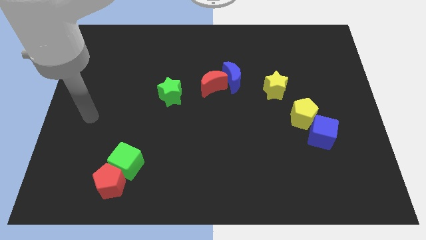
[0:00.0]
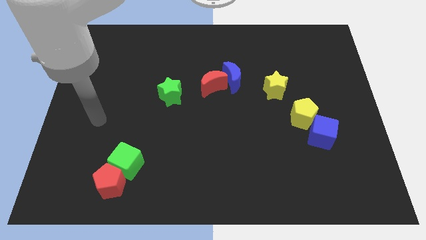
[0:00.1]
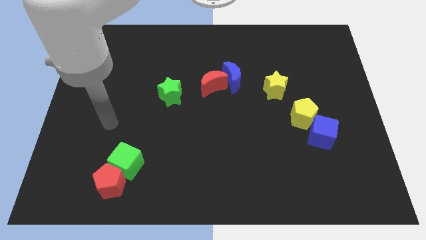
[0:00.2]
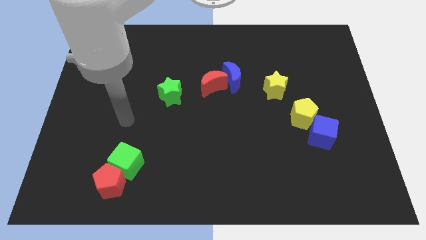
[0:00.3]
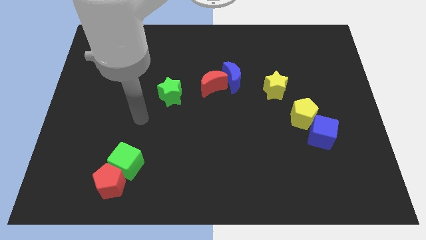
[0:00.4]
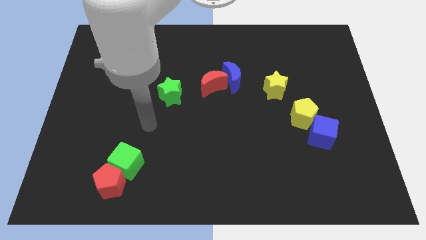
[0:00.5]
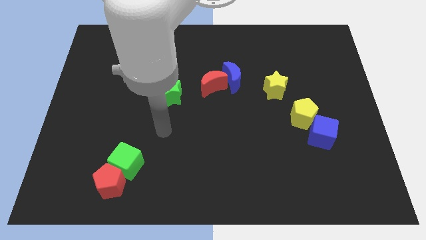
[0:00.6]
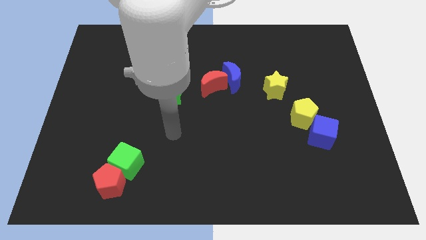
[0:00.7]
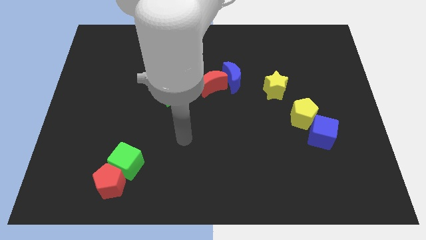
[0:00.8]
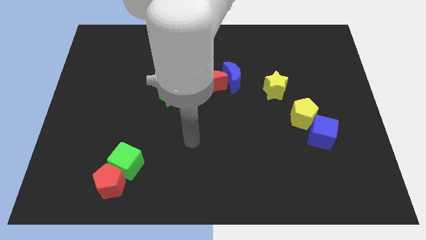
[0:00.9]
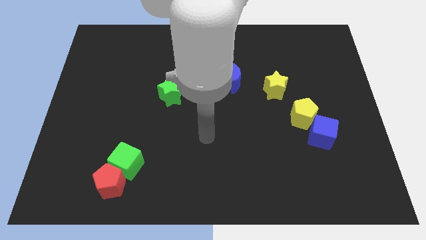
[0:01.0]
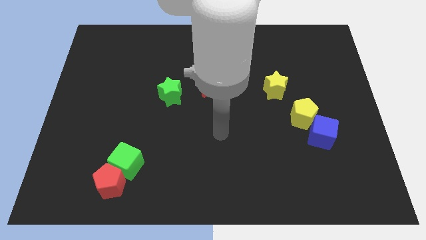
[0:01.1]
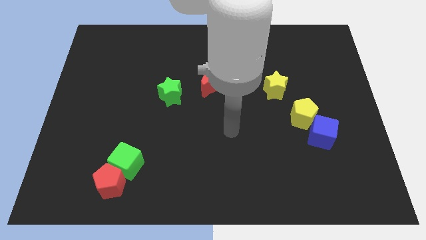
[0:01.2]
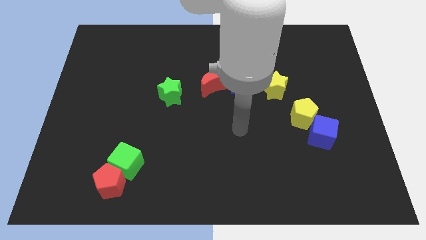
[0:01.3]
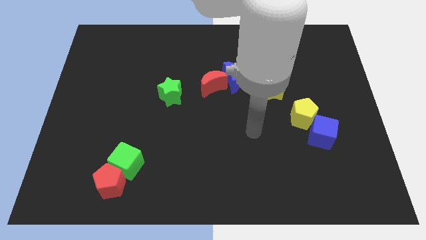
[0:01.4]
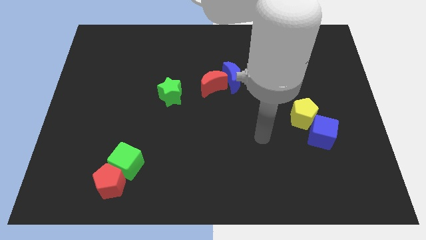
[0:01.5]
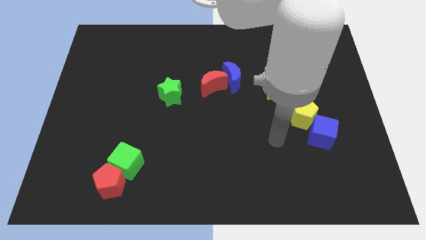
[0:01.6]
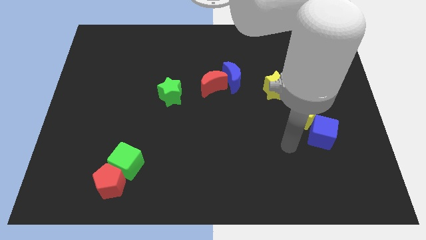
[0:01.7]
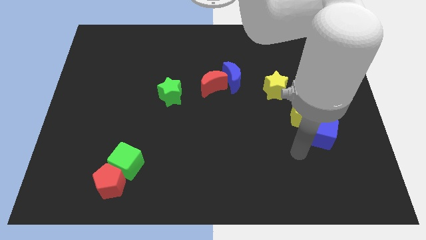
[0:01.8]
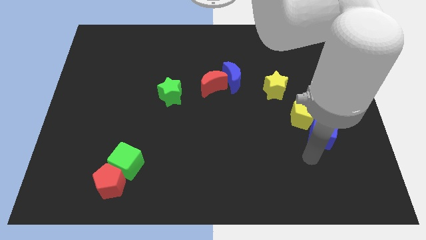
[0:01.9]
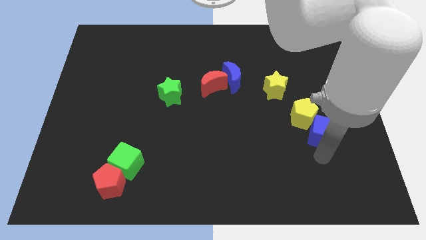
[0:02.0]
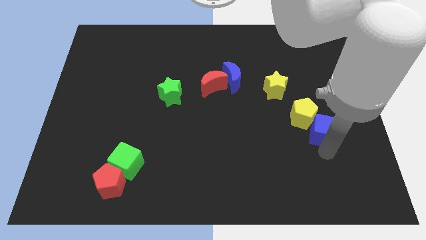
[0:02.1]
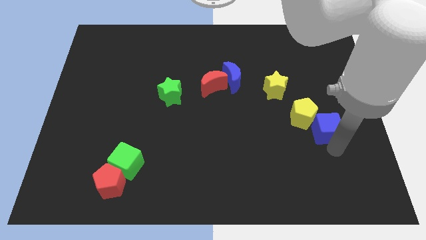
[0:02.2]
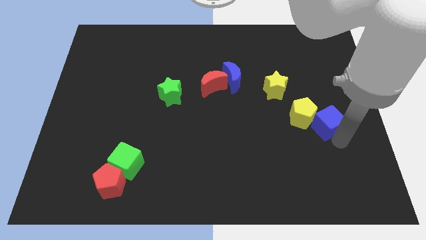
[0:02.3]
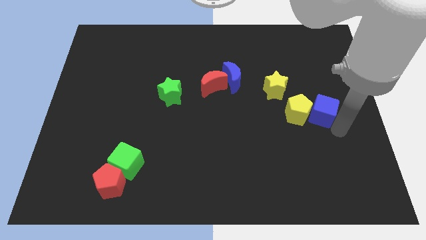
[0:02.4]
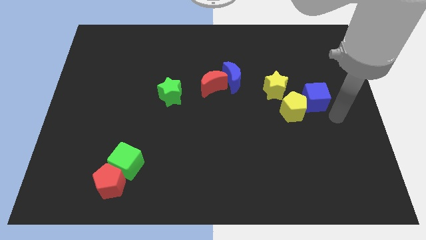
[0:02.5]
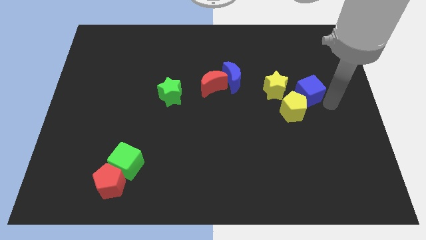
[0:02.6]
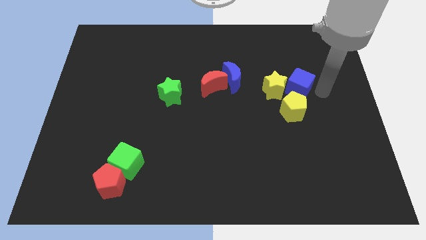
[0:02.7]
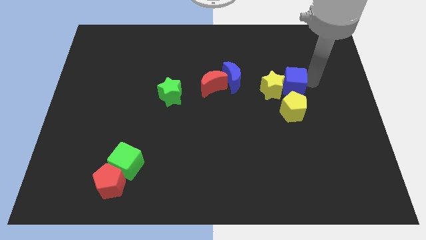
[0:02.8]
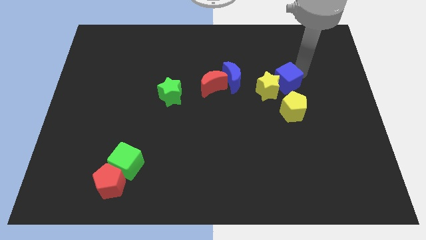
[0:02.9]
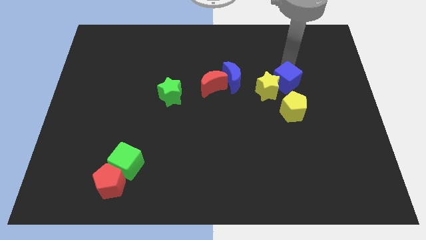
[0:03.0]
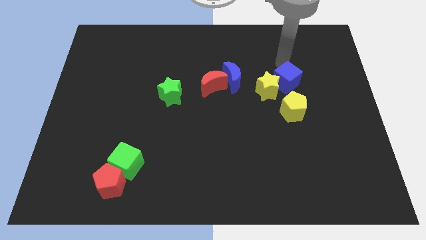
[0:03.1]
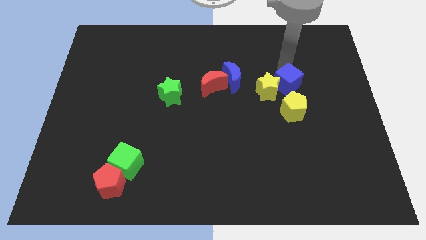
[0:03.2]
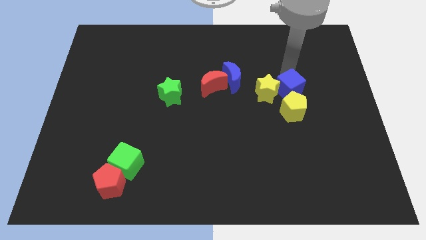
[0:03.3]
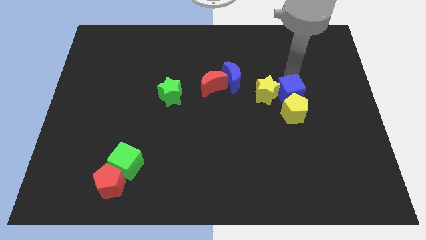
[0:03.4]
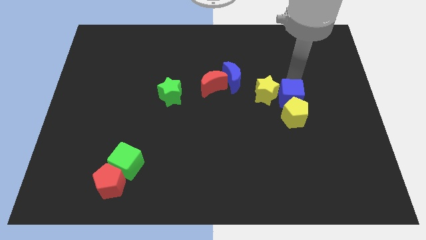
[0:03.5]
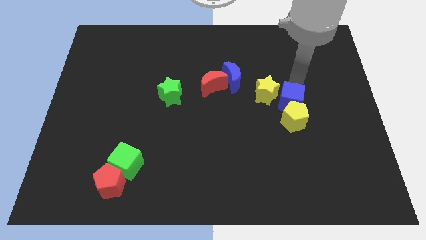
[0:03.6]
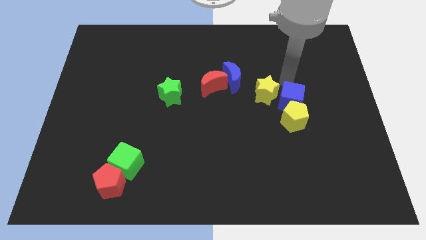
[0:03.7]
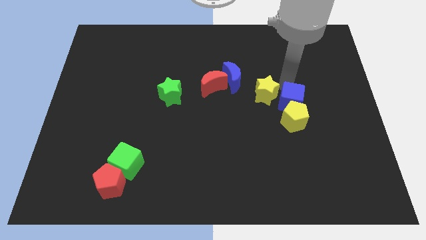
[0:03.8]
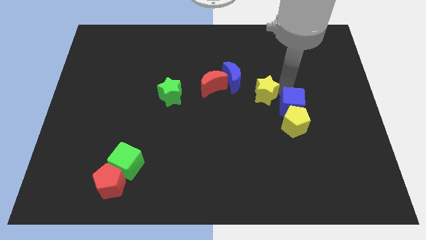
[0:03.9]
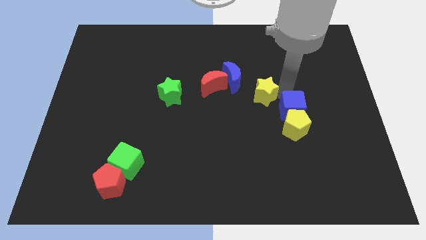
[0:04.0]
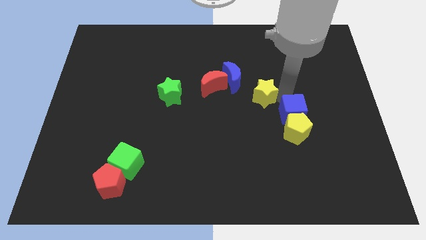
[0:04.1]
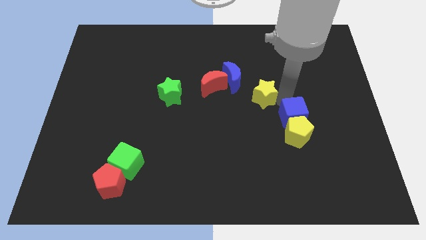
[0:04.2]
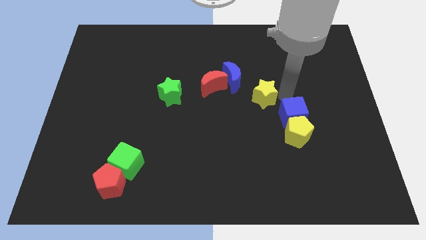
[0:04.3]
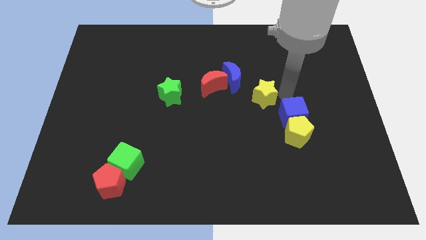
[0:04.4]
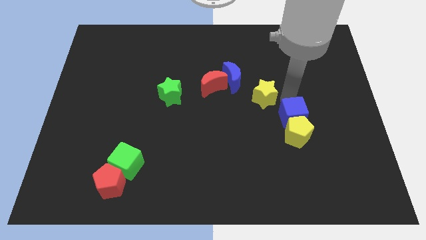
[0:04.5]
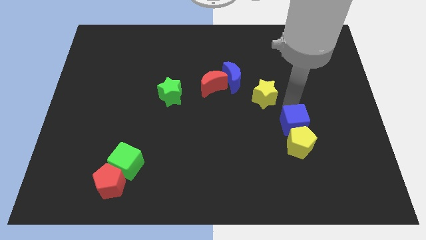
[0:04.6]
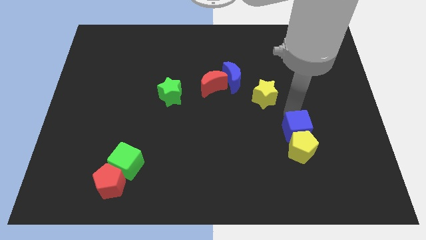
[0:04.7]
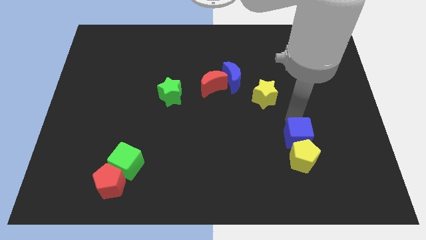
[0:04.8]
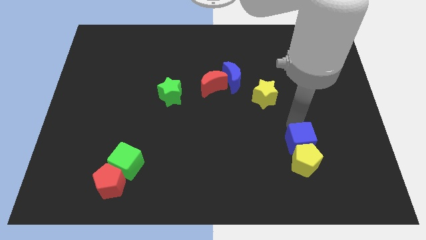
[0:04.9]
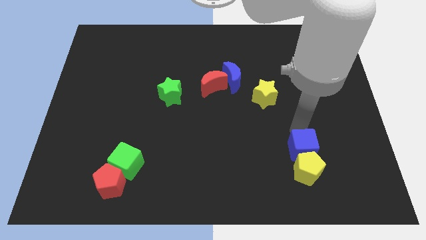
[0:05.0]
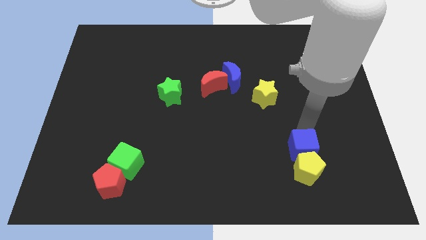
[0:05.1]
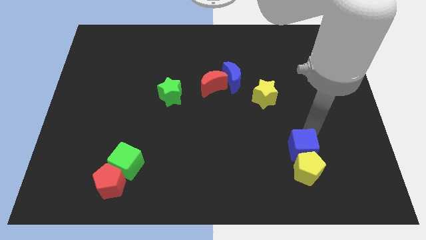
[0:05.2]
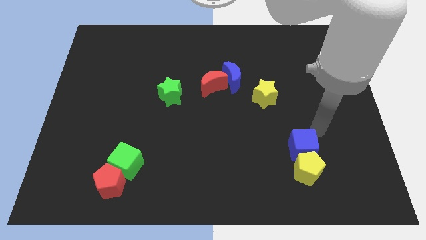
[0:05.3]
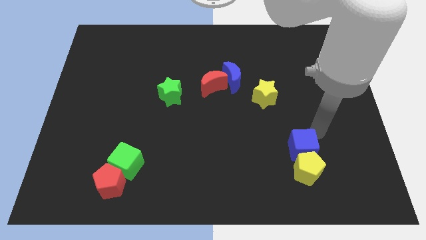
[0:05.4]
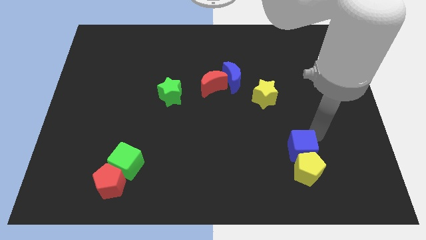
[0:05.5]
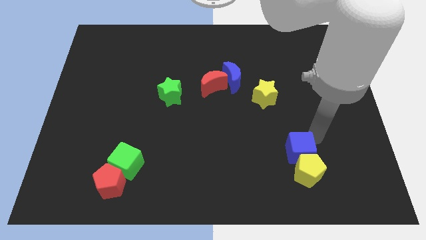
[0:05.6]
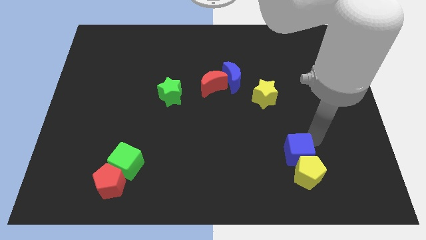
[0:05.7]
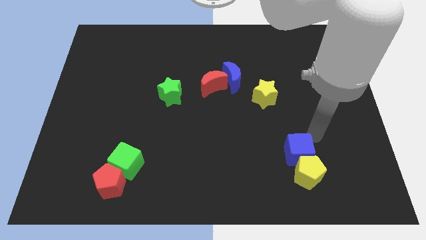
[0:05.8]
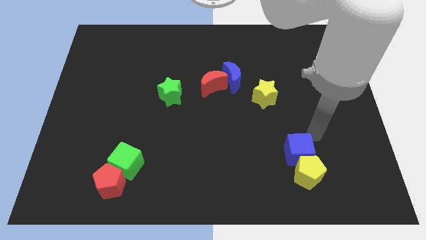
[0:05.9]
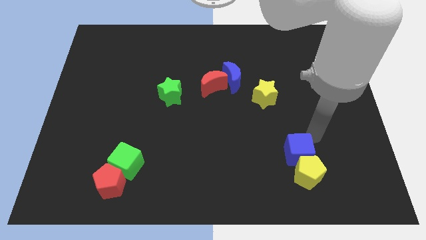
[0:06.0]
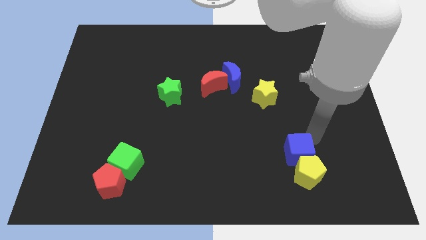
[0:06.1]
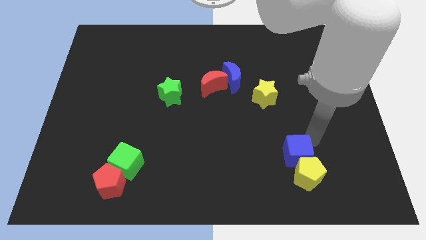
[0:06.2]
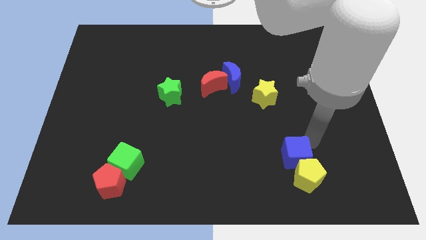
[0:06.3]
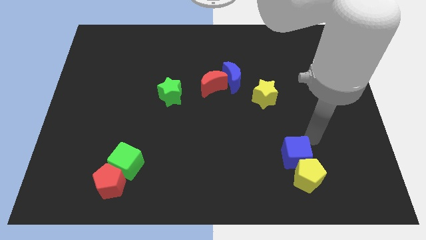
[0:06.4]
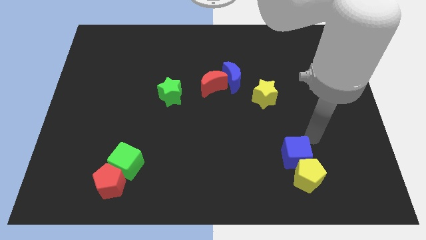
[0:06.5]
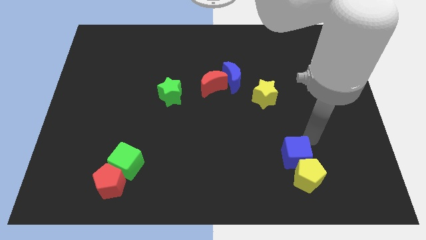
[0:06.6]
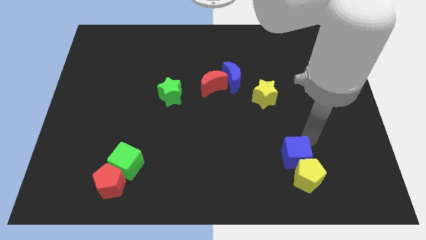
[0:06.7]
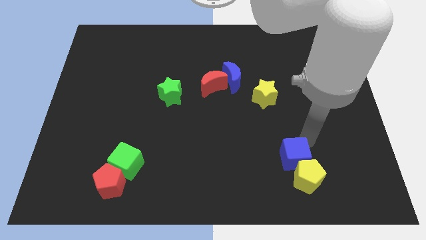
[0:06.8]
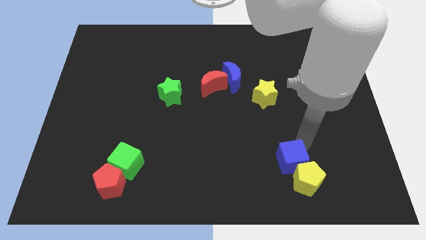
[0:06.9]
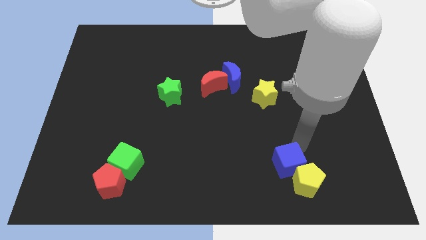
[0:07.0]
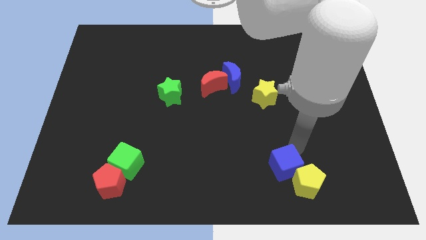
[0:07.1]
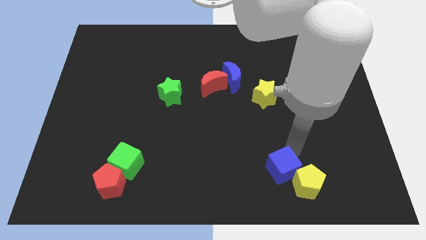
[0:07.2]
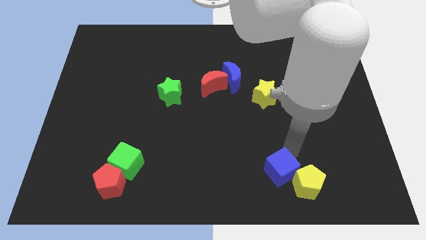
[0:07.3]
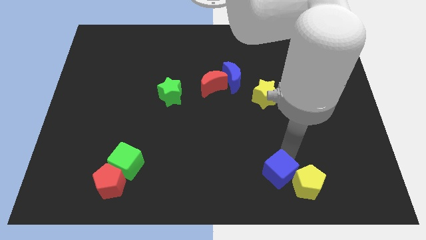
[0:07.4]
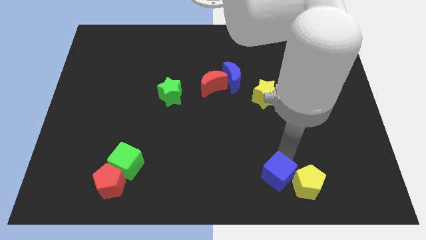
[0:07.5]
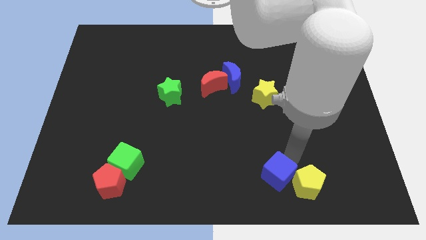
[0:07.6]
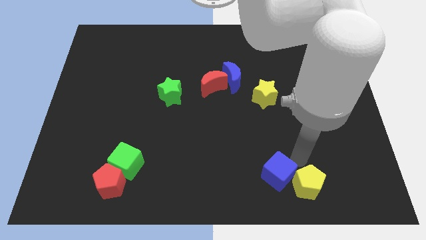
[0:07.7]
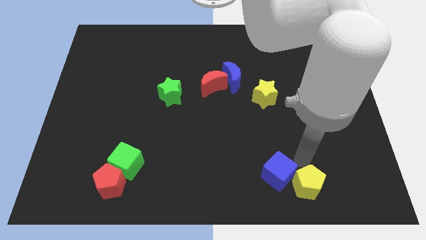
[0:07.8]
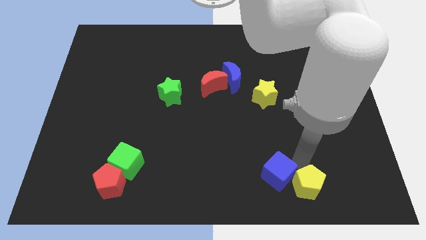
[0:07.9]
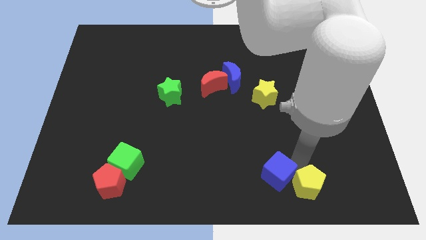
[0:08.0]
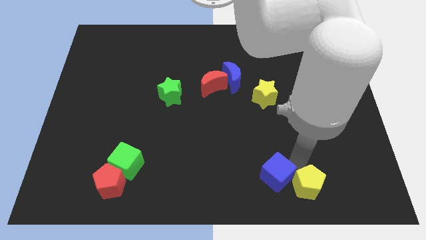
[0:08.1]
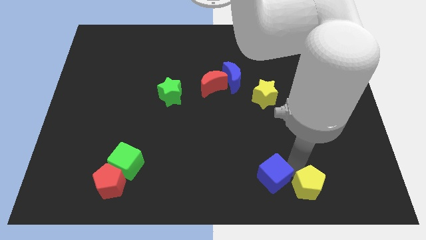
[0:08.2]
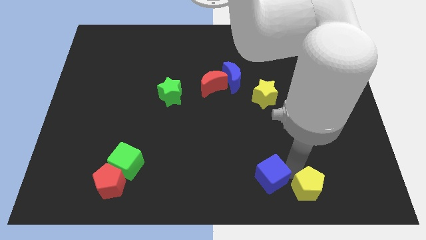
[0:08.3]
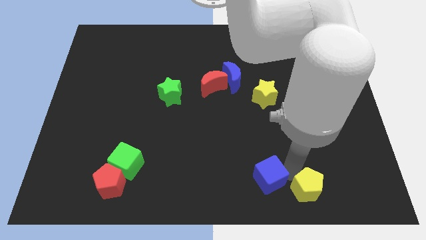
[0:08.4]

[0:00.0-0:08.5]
slide the blue cube to the bottom side
